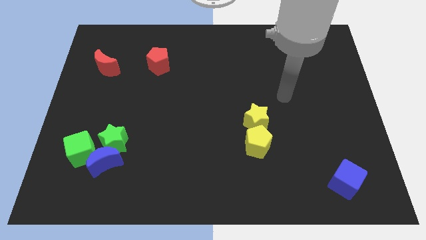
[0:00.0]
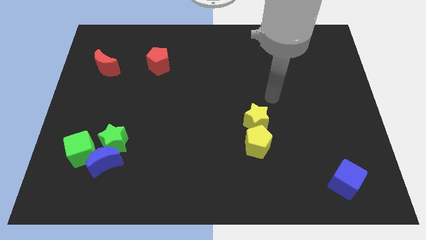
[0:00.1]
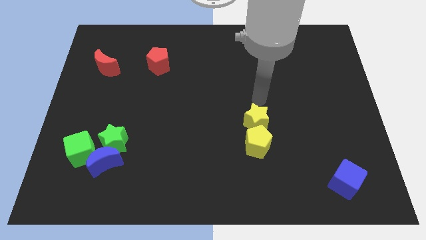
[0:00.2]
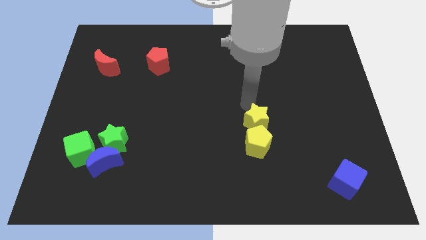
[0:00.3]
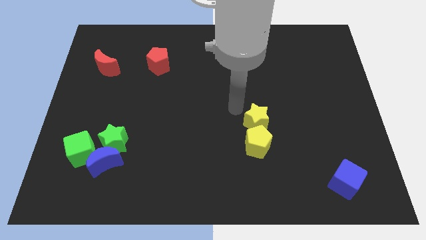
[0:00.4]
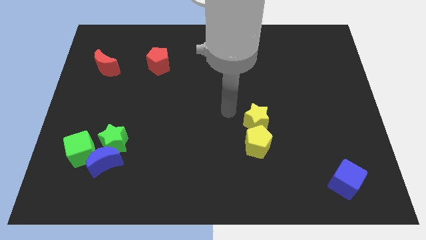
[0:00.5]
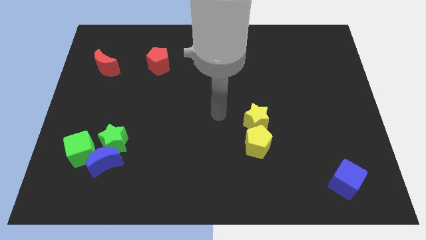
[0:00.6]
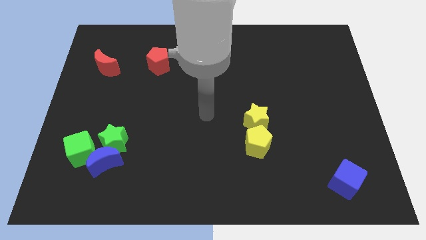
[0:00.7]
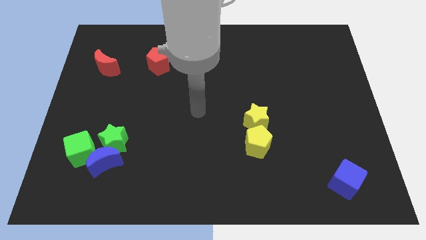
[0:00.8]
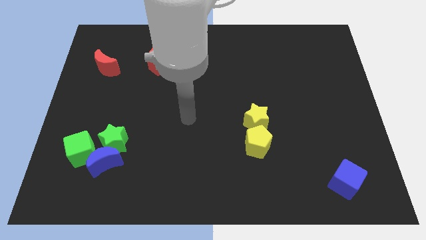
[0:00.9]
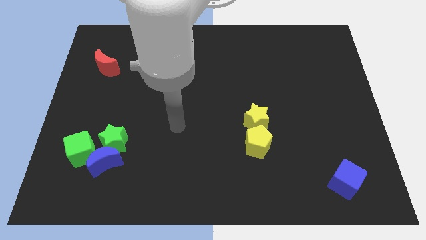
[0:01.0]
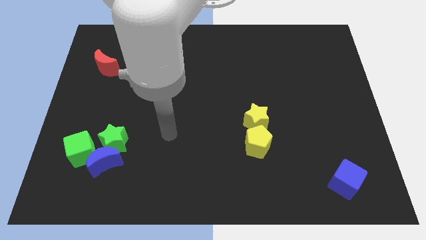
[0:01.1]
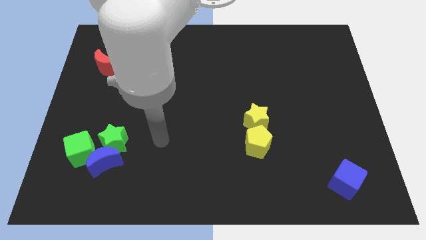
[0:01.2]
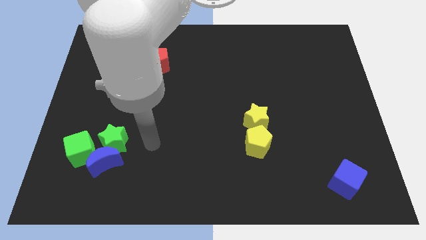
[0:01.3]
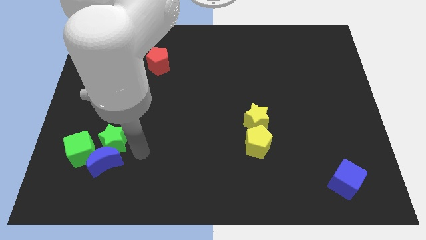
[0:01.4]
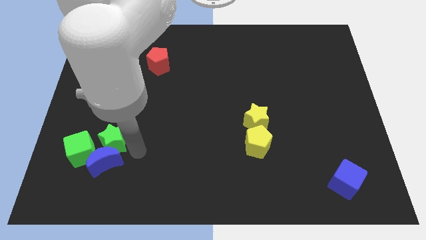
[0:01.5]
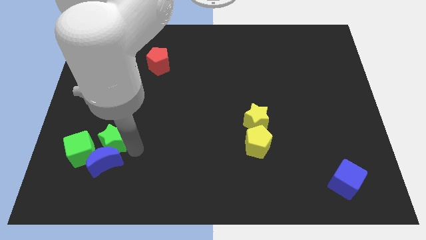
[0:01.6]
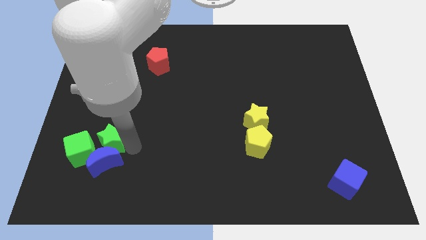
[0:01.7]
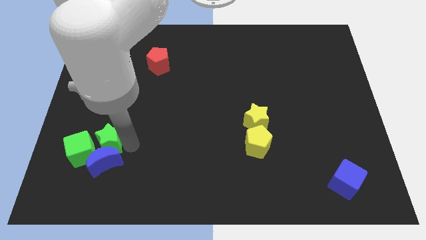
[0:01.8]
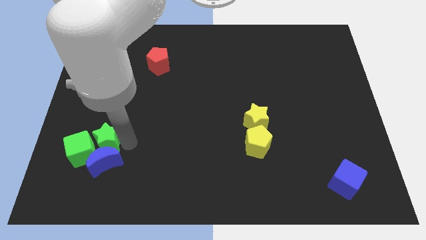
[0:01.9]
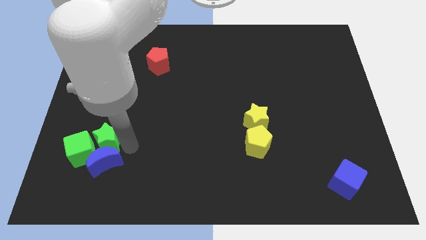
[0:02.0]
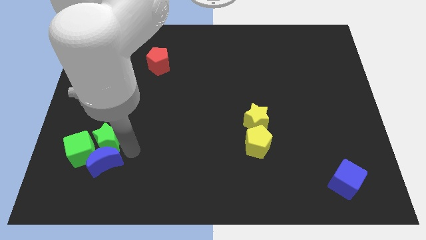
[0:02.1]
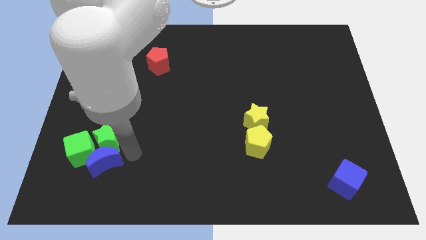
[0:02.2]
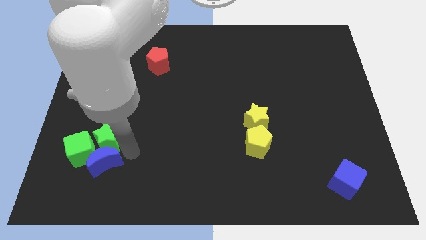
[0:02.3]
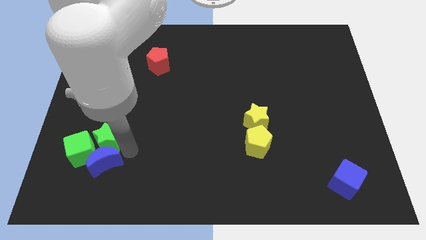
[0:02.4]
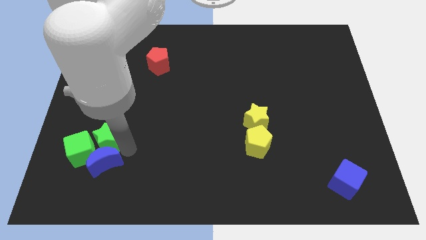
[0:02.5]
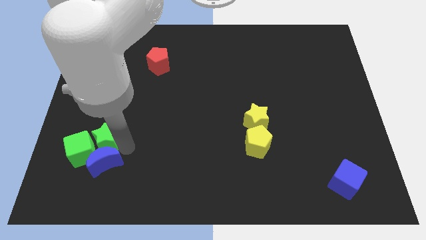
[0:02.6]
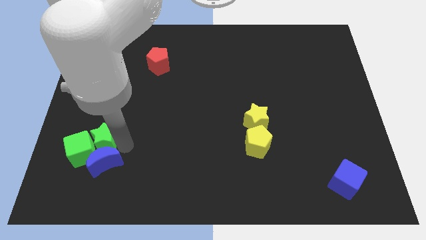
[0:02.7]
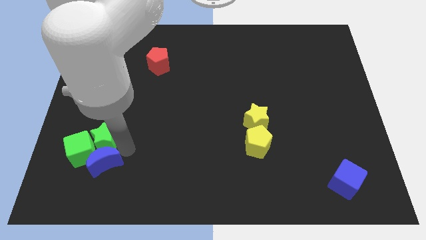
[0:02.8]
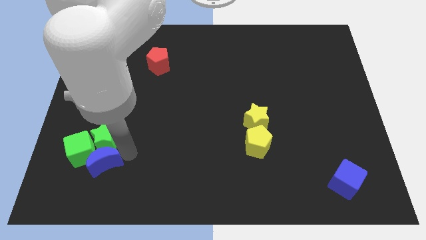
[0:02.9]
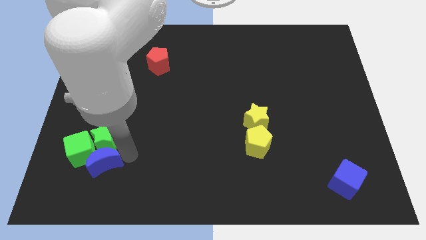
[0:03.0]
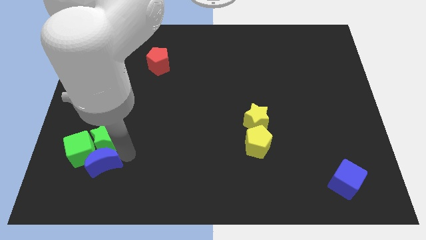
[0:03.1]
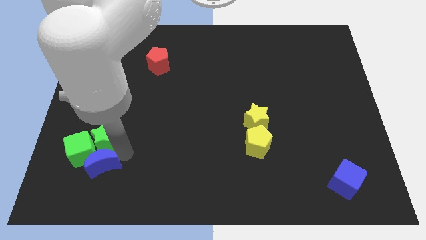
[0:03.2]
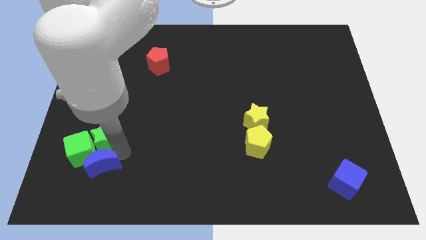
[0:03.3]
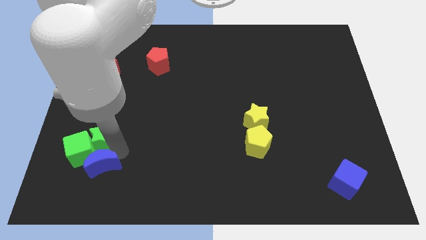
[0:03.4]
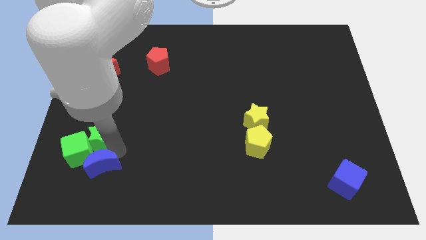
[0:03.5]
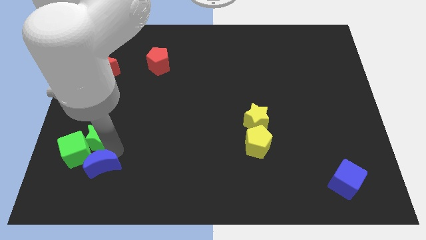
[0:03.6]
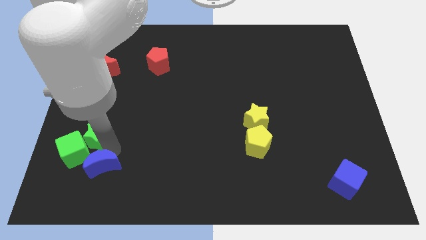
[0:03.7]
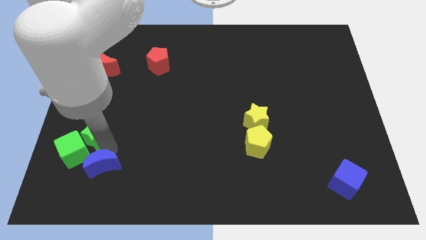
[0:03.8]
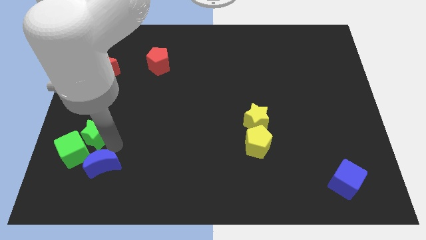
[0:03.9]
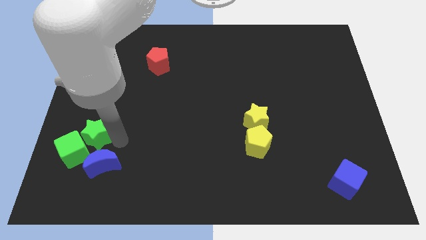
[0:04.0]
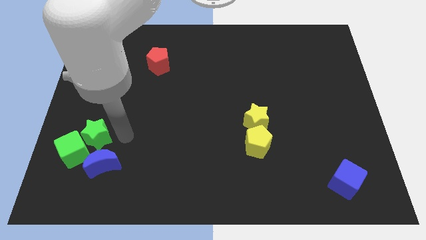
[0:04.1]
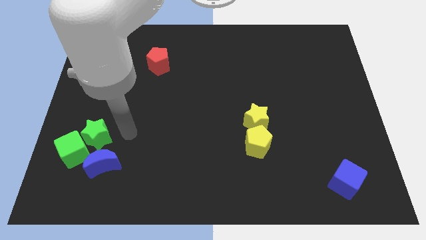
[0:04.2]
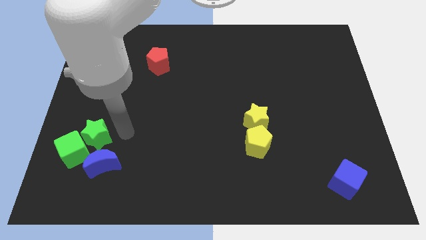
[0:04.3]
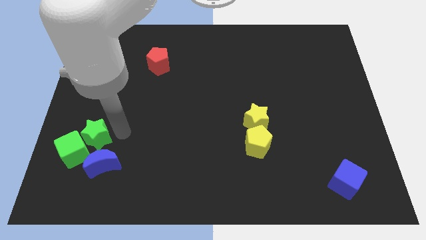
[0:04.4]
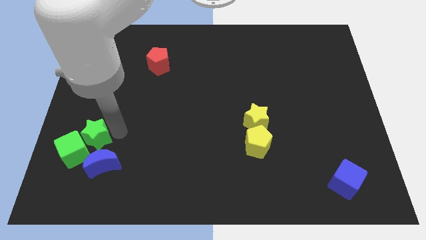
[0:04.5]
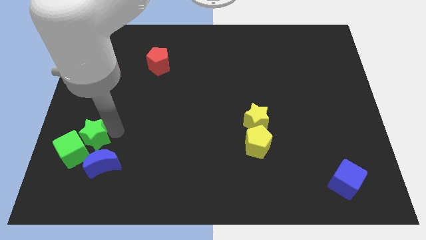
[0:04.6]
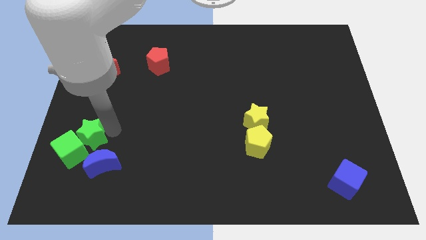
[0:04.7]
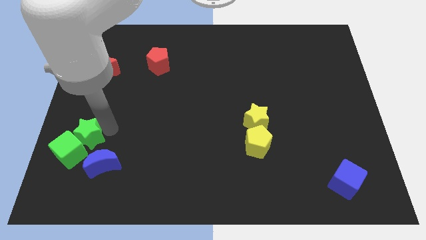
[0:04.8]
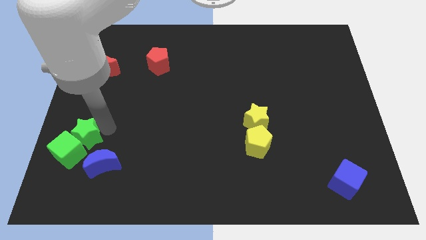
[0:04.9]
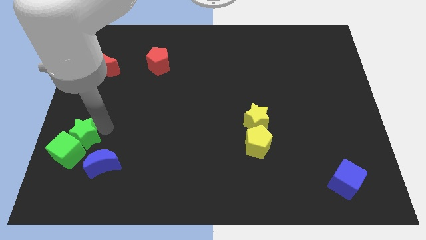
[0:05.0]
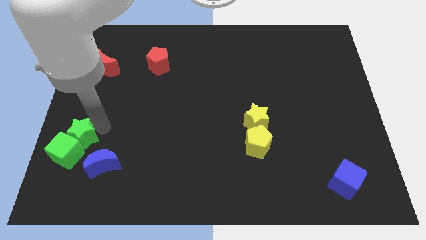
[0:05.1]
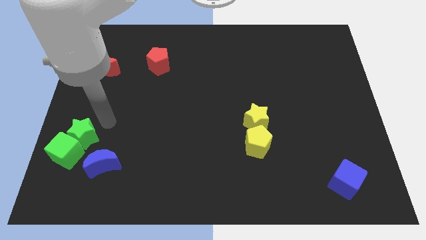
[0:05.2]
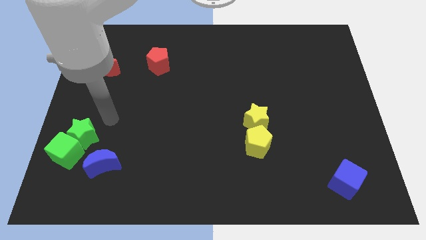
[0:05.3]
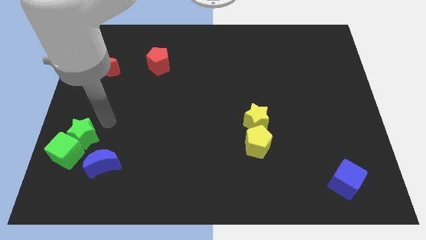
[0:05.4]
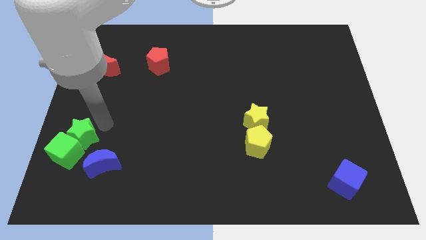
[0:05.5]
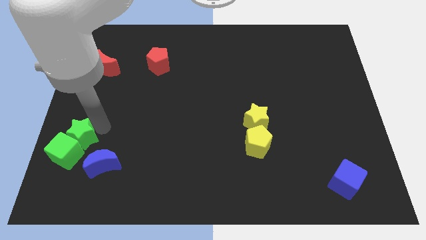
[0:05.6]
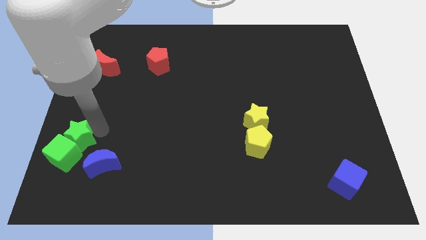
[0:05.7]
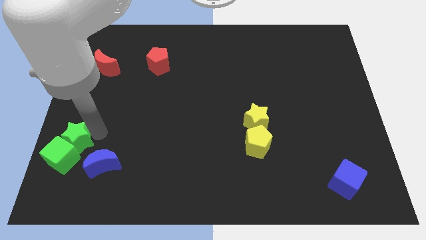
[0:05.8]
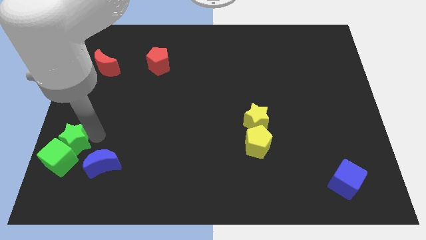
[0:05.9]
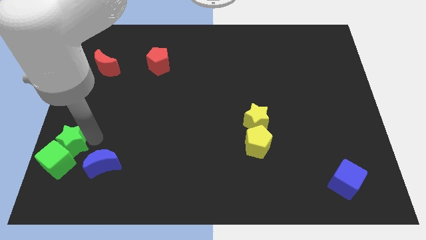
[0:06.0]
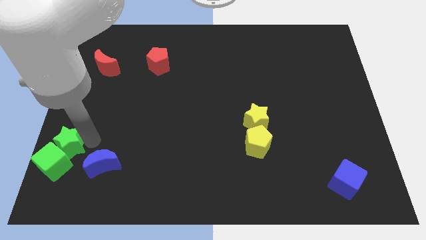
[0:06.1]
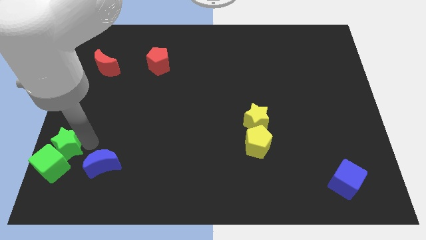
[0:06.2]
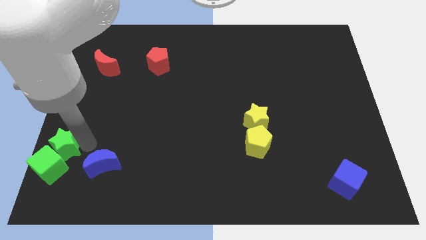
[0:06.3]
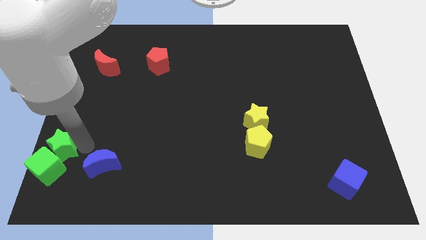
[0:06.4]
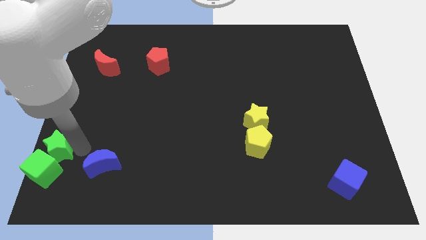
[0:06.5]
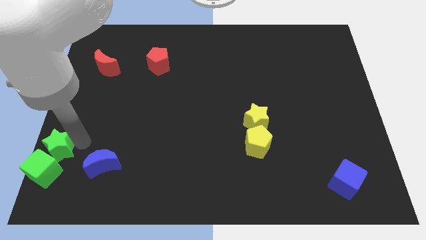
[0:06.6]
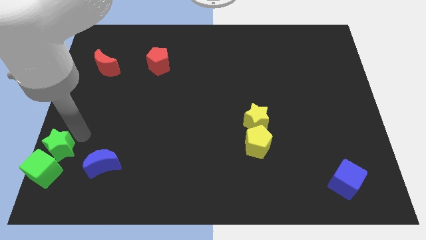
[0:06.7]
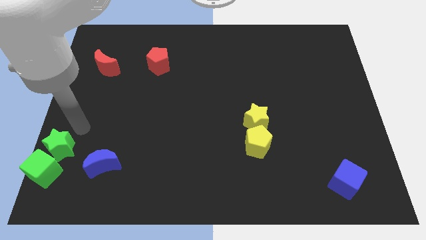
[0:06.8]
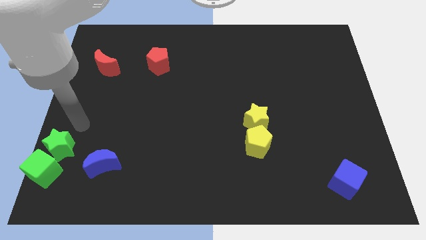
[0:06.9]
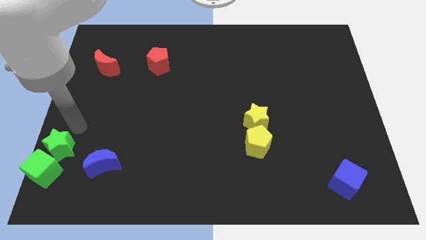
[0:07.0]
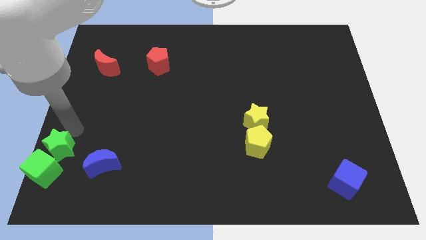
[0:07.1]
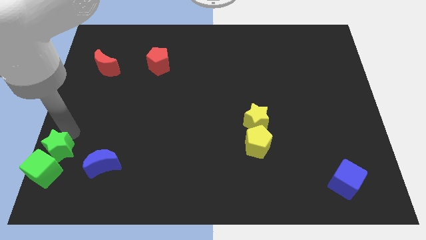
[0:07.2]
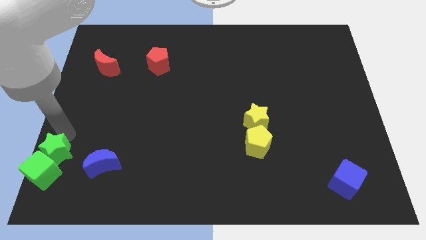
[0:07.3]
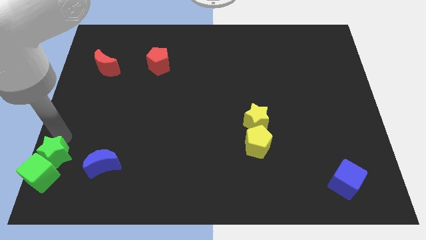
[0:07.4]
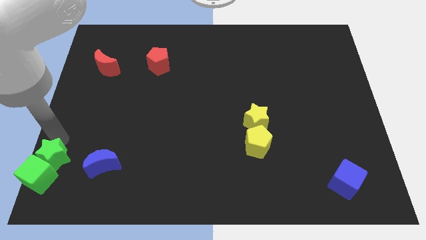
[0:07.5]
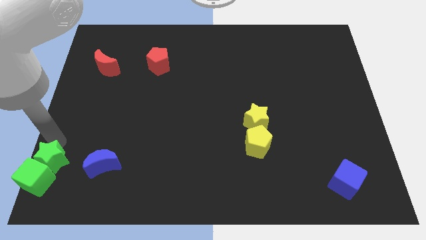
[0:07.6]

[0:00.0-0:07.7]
move the green star to the bottom left corner

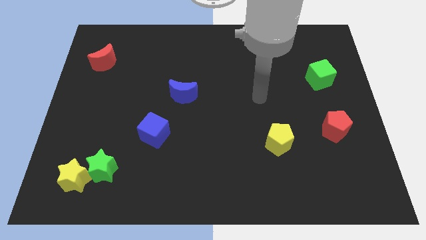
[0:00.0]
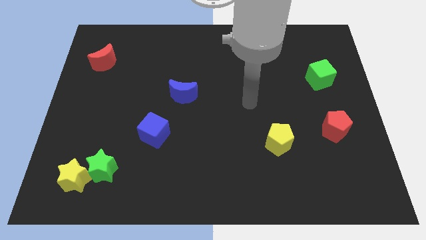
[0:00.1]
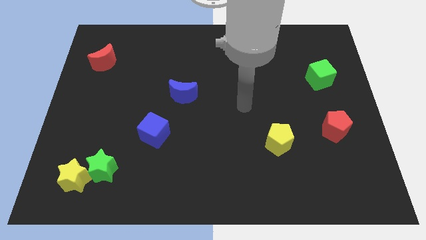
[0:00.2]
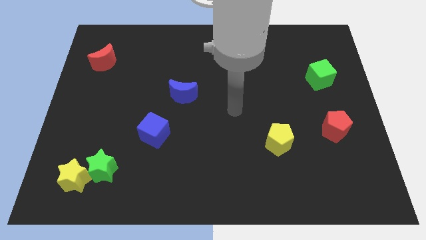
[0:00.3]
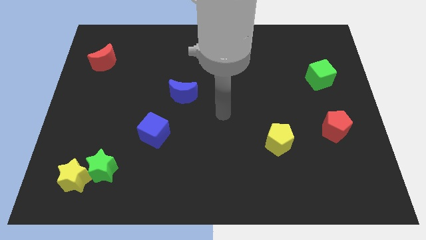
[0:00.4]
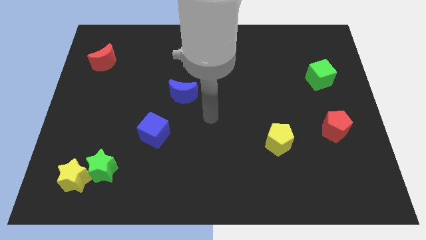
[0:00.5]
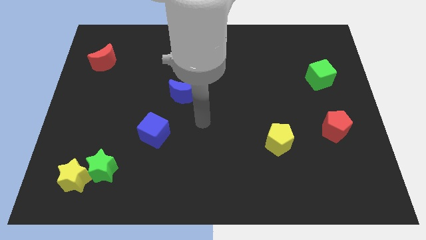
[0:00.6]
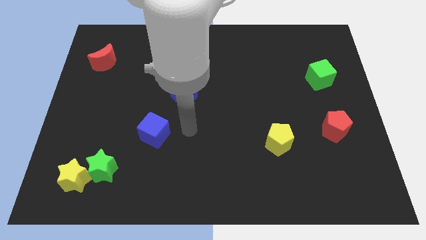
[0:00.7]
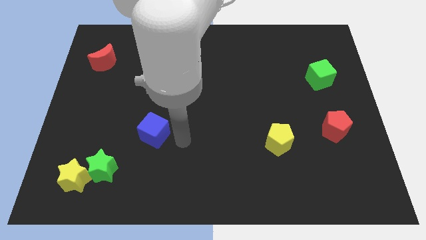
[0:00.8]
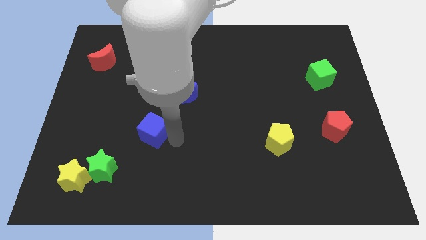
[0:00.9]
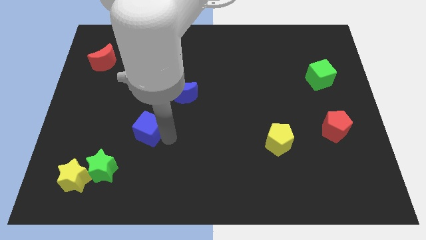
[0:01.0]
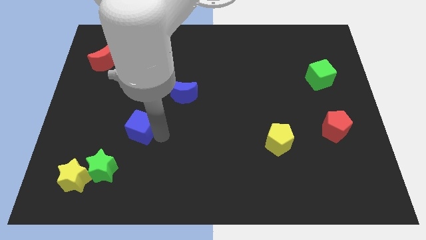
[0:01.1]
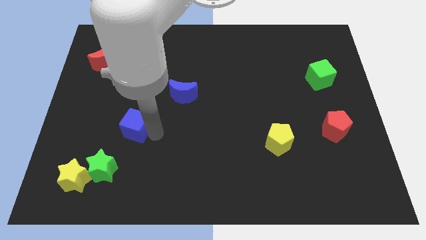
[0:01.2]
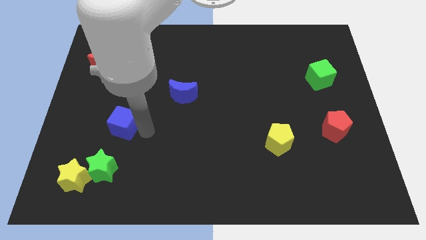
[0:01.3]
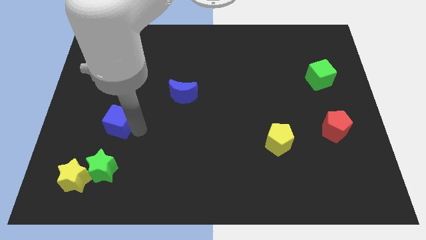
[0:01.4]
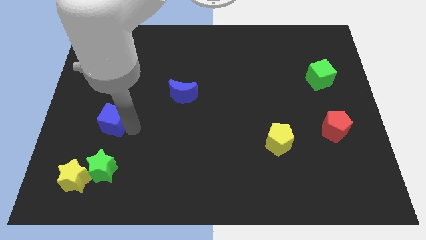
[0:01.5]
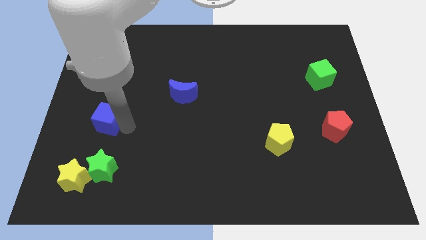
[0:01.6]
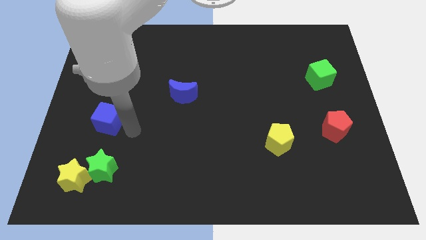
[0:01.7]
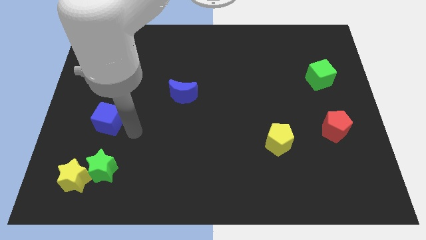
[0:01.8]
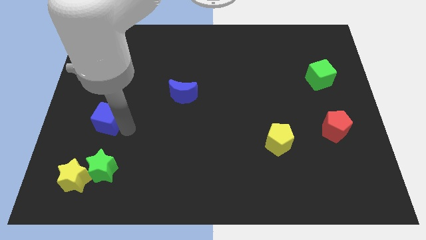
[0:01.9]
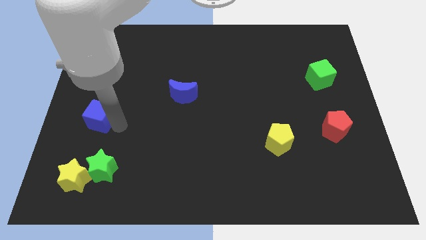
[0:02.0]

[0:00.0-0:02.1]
put the blue cube to the center left
